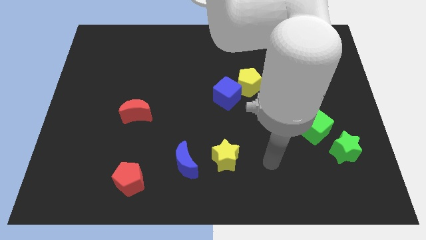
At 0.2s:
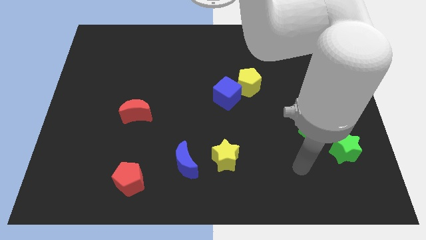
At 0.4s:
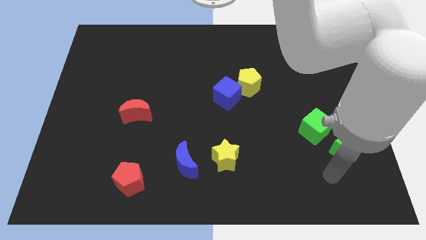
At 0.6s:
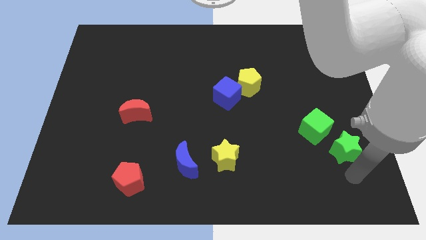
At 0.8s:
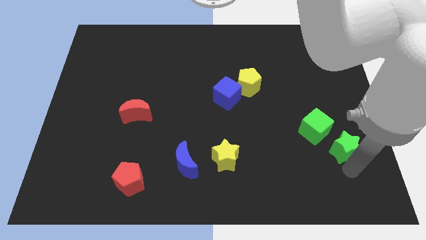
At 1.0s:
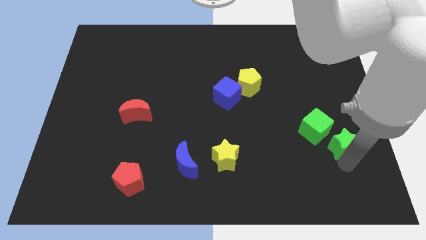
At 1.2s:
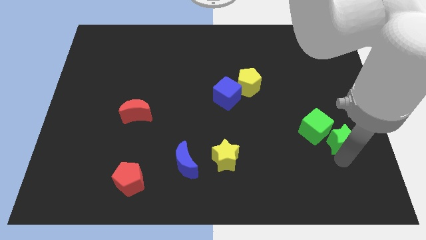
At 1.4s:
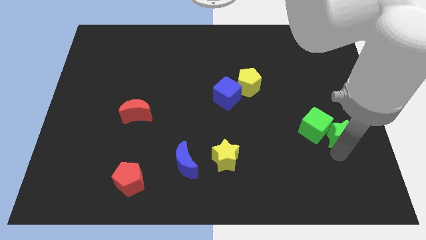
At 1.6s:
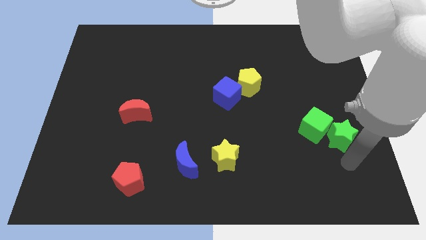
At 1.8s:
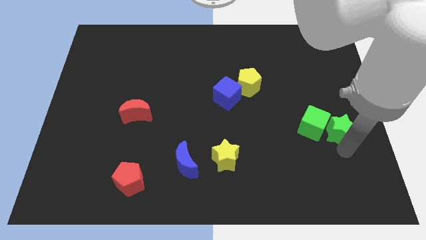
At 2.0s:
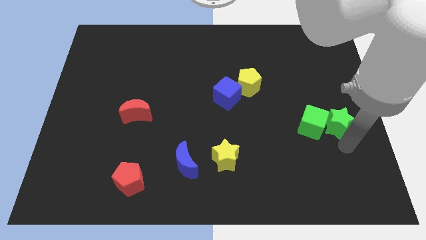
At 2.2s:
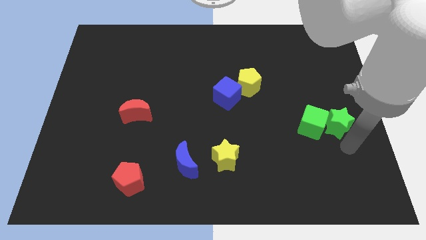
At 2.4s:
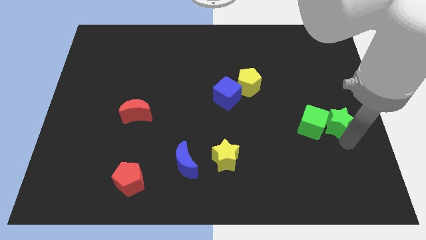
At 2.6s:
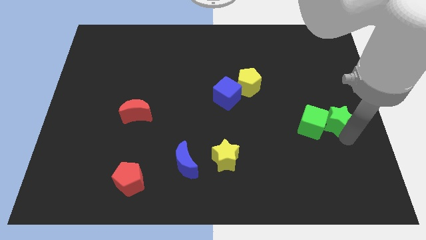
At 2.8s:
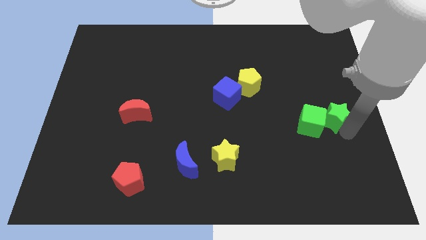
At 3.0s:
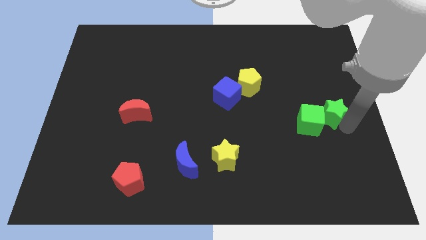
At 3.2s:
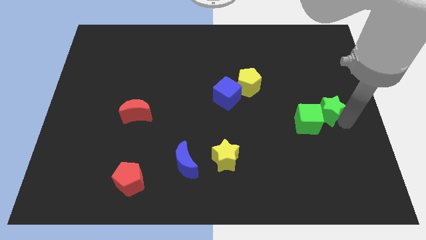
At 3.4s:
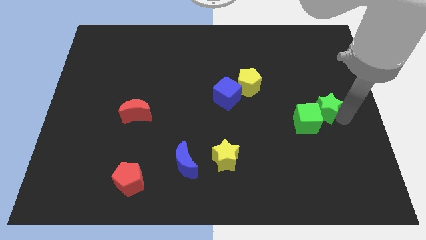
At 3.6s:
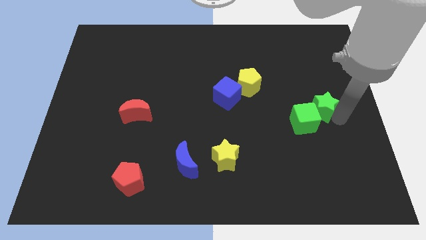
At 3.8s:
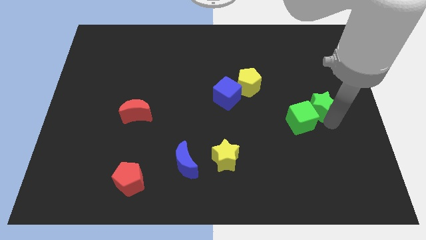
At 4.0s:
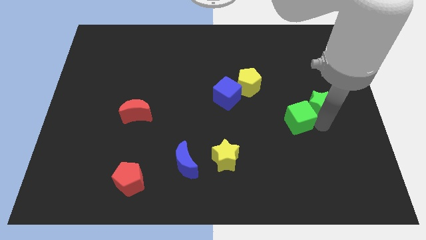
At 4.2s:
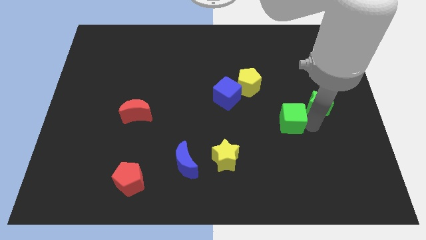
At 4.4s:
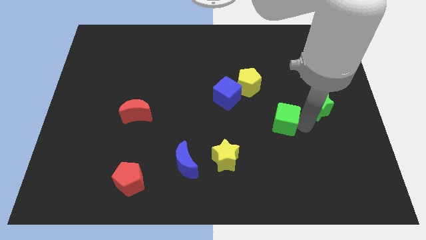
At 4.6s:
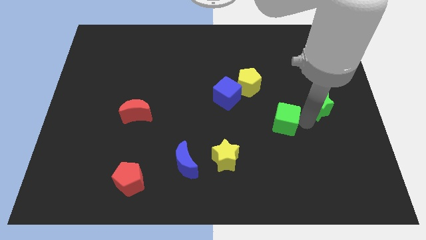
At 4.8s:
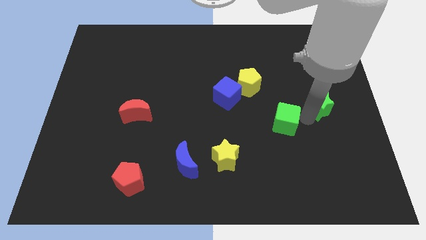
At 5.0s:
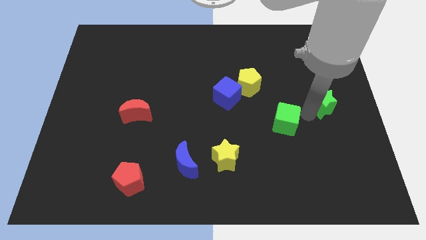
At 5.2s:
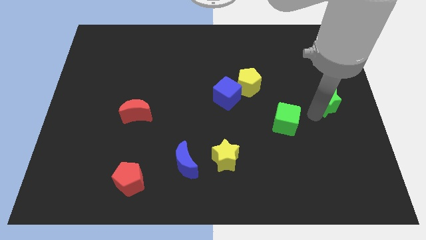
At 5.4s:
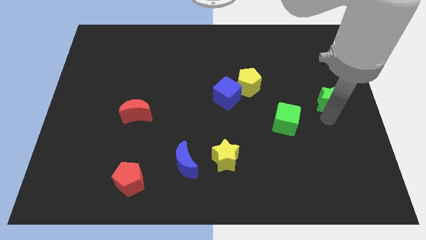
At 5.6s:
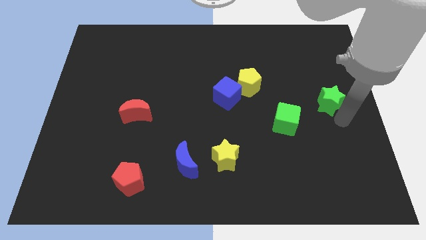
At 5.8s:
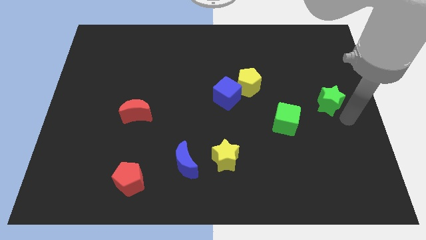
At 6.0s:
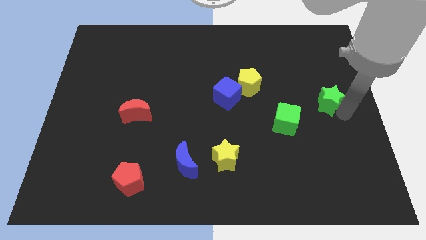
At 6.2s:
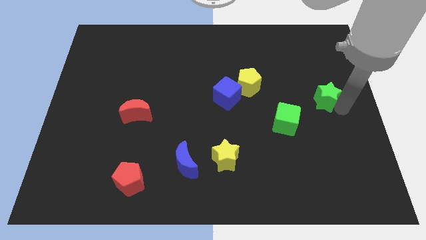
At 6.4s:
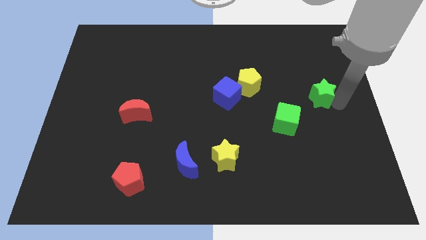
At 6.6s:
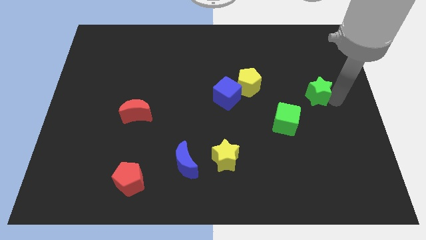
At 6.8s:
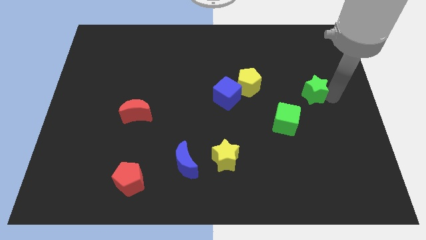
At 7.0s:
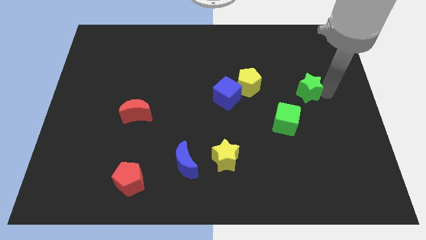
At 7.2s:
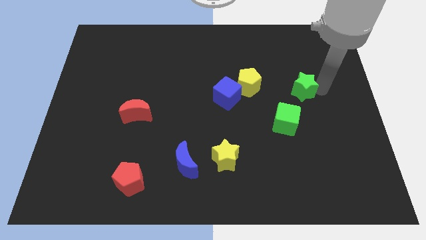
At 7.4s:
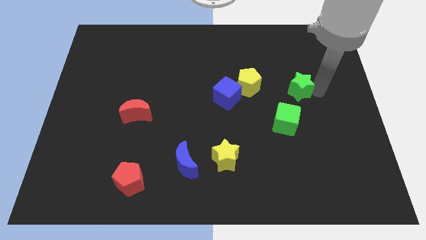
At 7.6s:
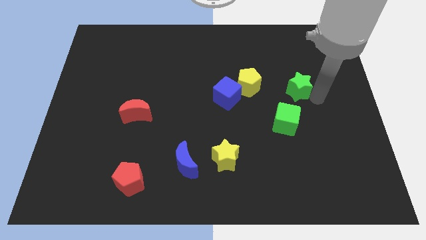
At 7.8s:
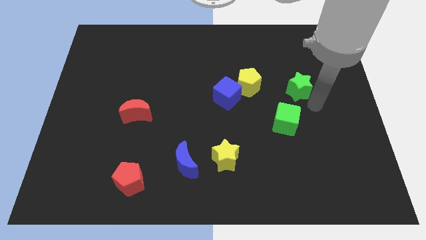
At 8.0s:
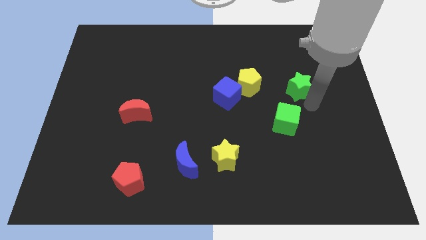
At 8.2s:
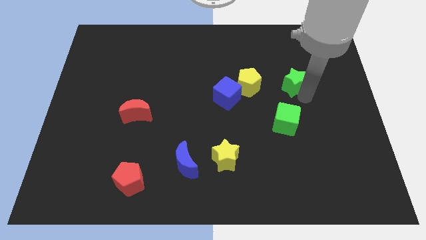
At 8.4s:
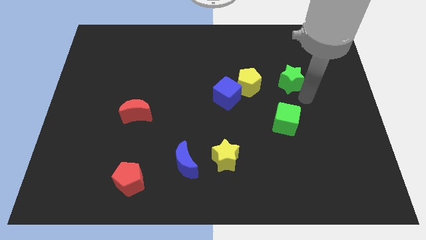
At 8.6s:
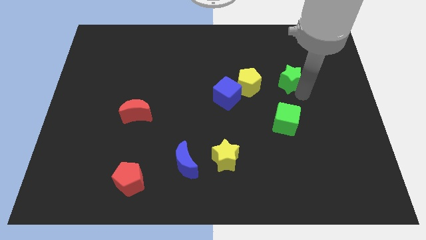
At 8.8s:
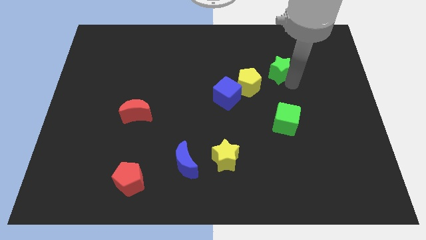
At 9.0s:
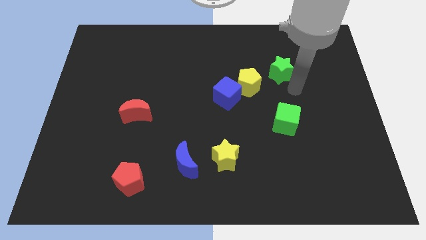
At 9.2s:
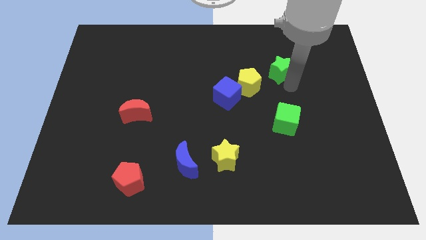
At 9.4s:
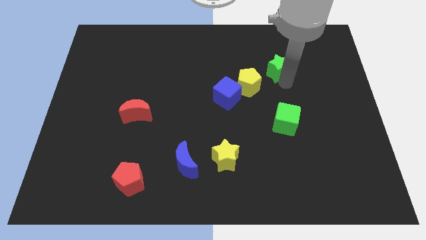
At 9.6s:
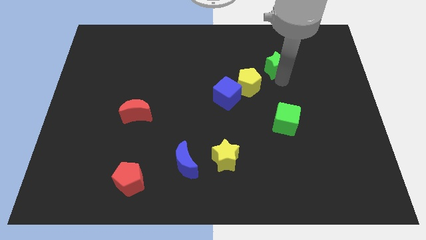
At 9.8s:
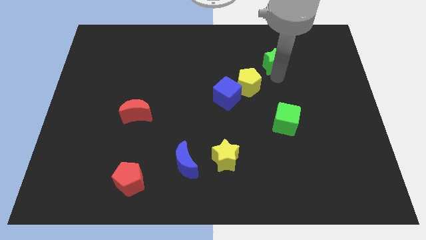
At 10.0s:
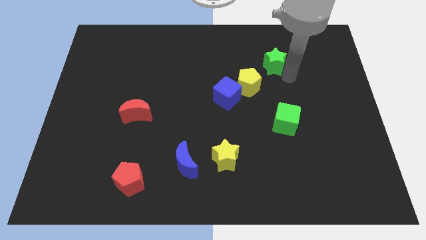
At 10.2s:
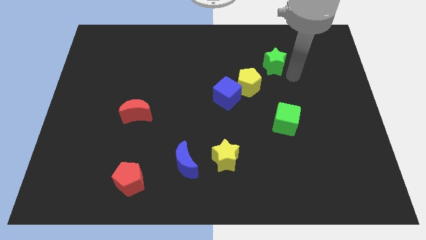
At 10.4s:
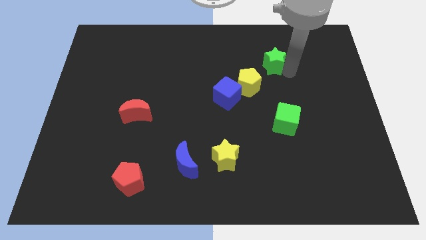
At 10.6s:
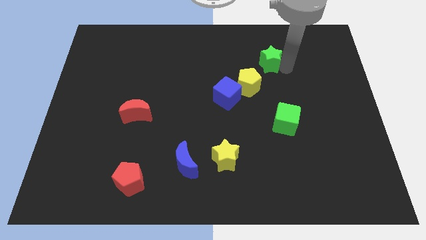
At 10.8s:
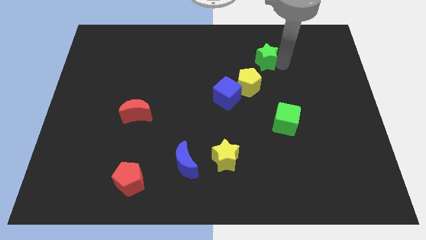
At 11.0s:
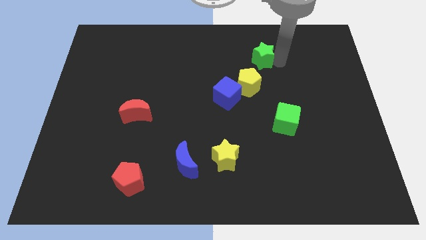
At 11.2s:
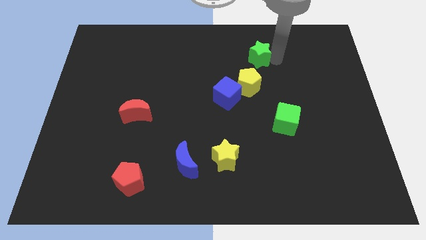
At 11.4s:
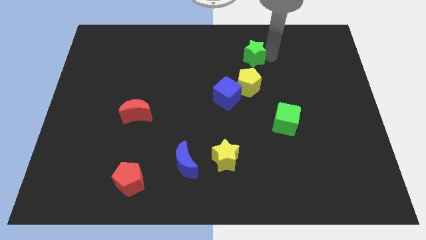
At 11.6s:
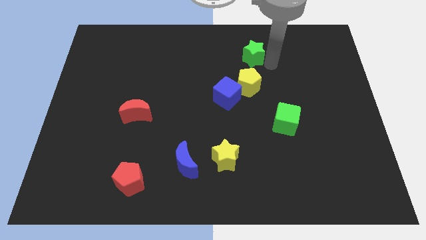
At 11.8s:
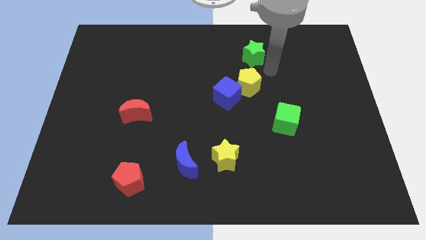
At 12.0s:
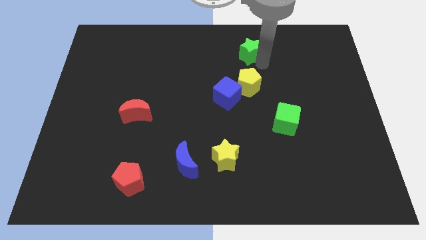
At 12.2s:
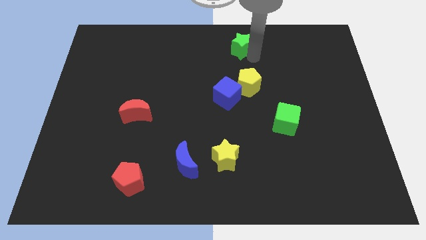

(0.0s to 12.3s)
push the green star to the top side

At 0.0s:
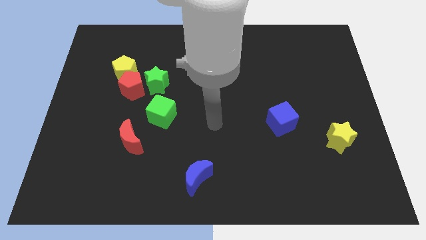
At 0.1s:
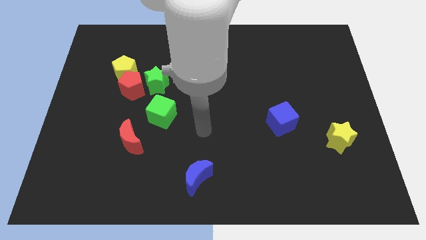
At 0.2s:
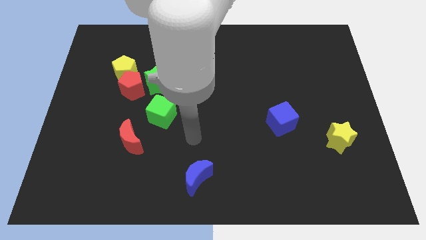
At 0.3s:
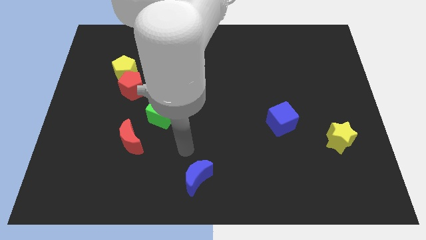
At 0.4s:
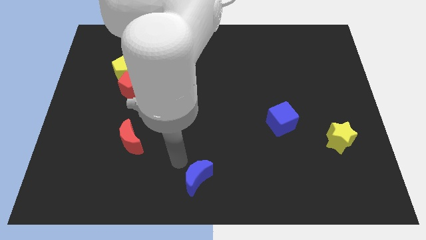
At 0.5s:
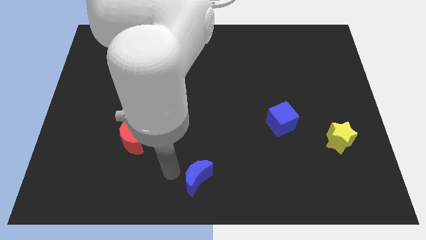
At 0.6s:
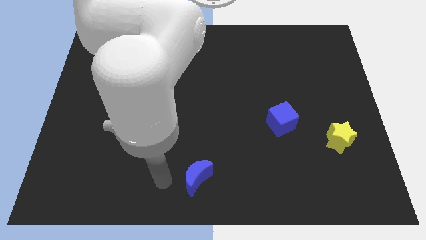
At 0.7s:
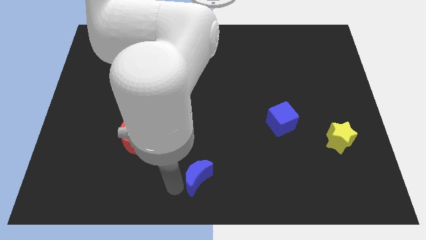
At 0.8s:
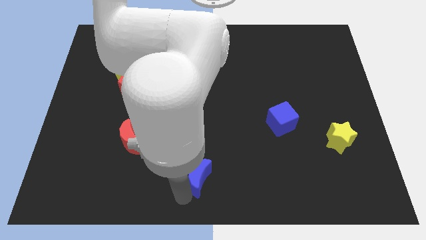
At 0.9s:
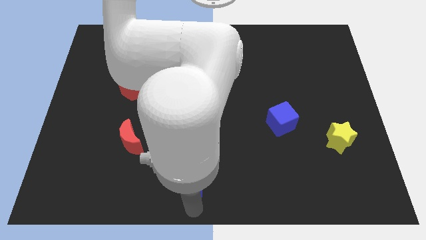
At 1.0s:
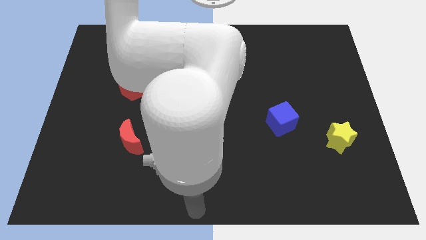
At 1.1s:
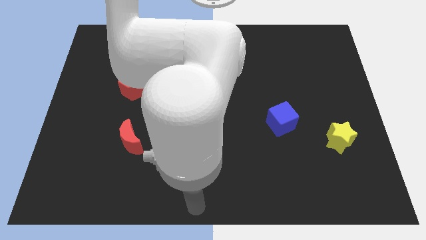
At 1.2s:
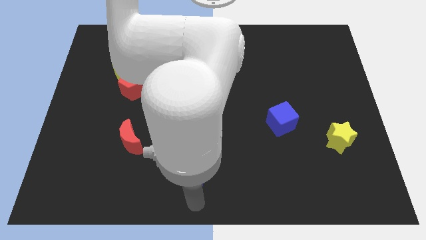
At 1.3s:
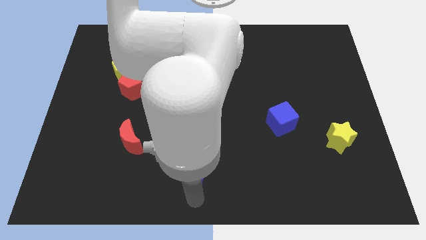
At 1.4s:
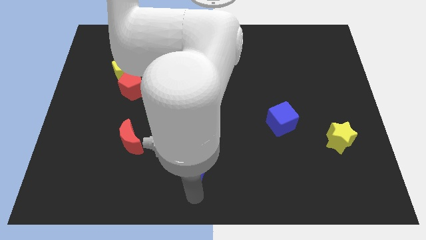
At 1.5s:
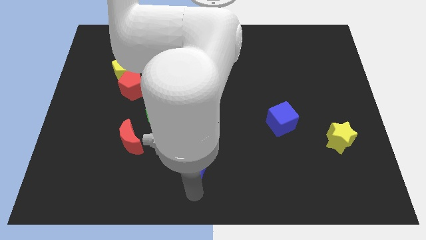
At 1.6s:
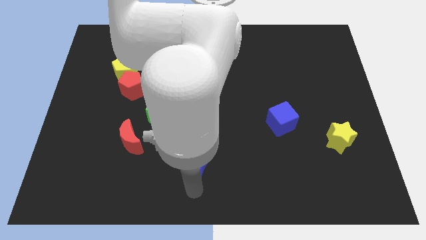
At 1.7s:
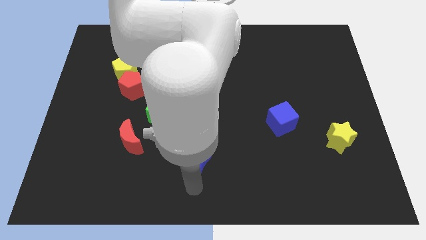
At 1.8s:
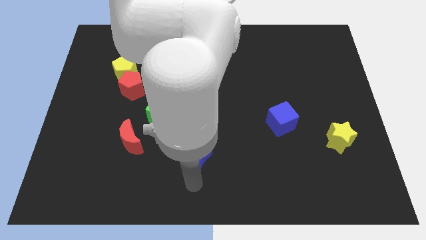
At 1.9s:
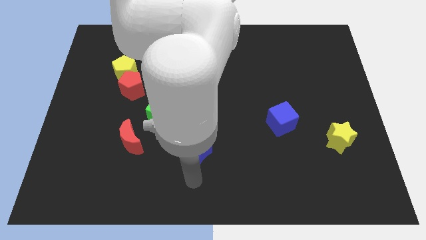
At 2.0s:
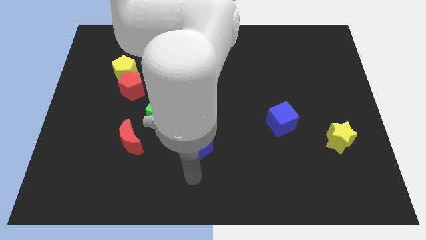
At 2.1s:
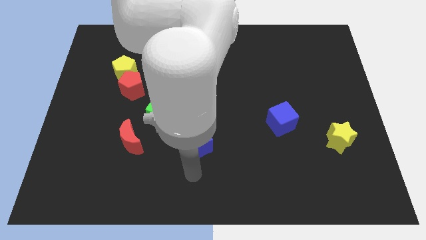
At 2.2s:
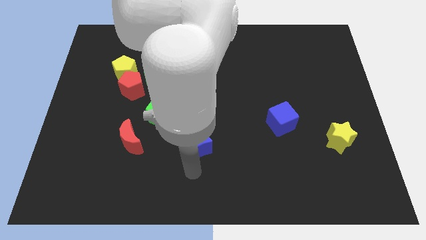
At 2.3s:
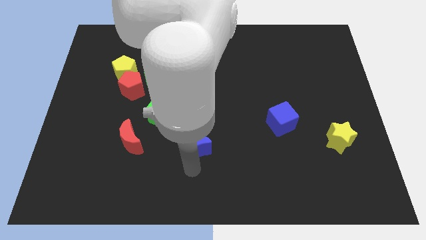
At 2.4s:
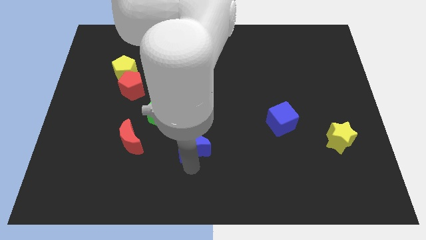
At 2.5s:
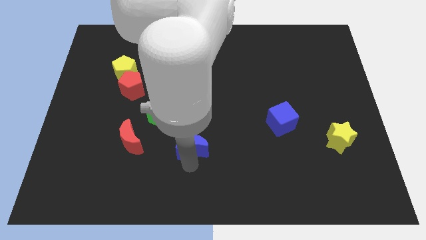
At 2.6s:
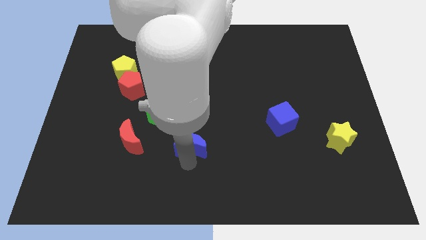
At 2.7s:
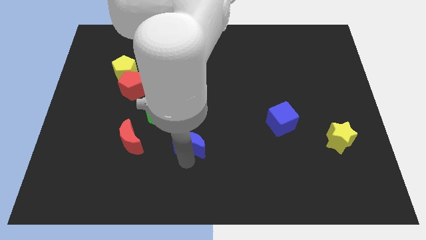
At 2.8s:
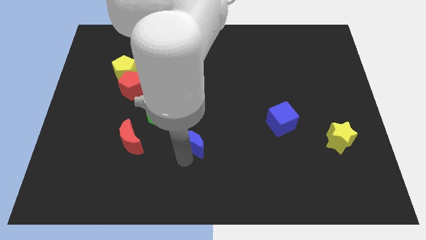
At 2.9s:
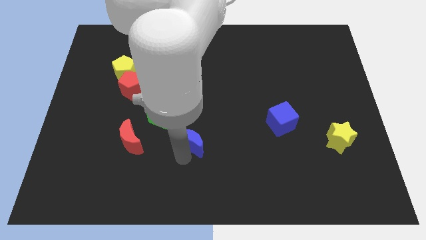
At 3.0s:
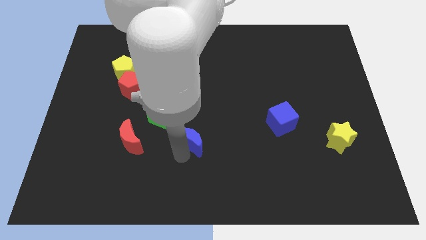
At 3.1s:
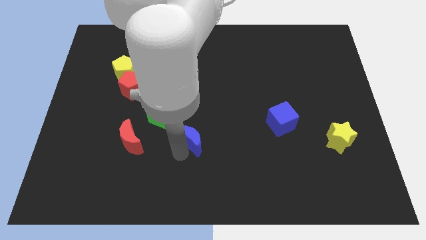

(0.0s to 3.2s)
slide the blue moon to the center
